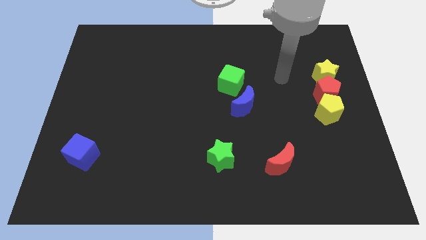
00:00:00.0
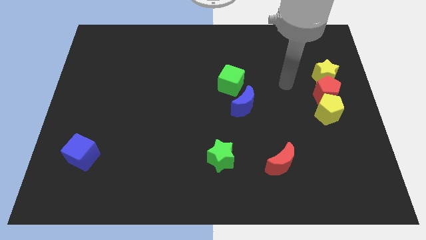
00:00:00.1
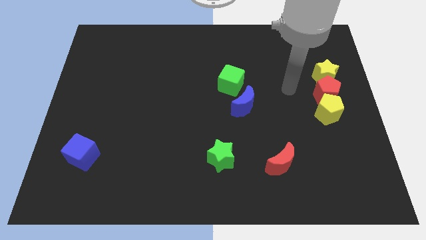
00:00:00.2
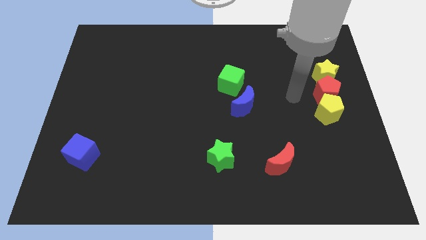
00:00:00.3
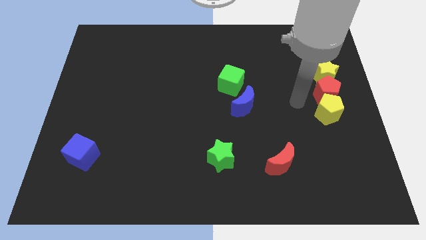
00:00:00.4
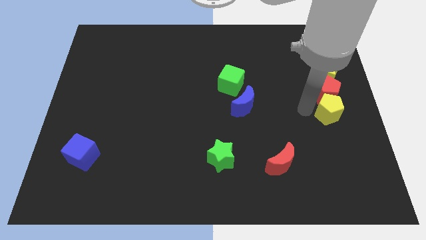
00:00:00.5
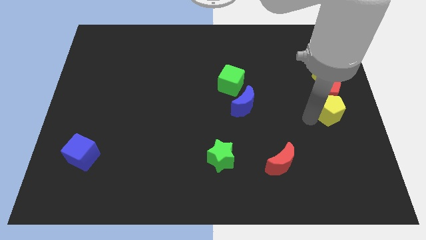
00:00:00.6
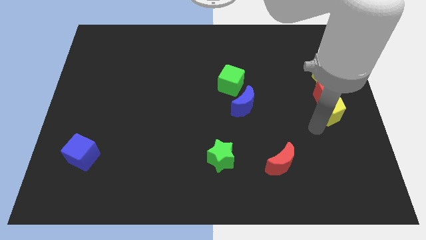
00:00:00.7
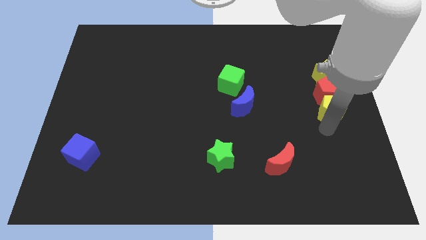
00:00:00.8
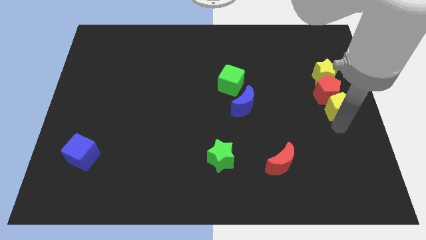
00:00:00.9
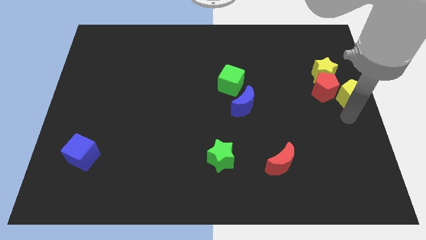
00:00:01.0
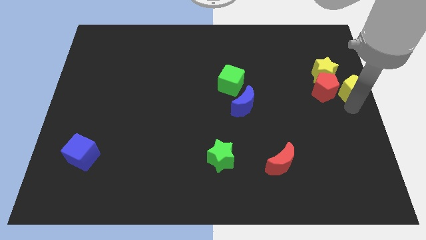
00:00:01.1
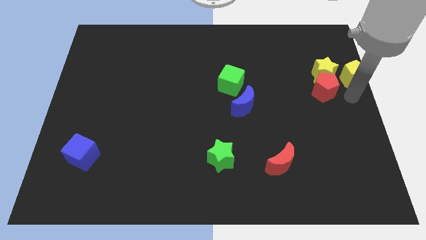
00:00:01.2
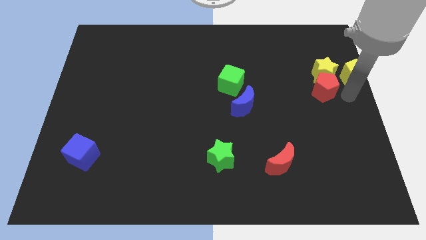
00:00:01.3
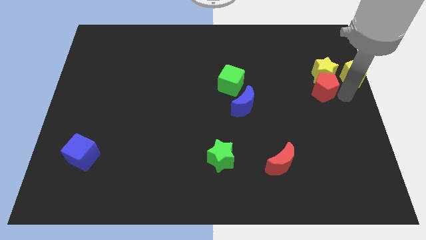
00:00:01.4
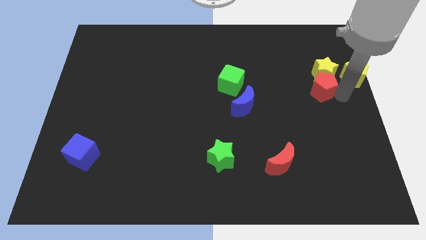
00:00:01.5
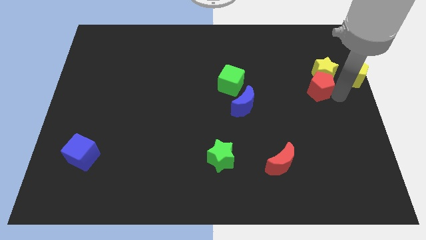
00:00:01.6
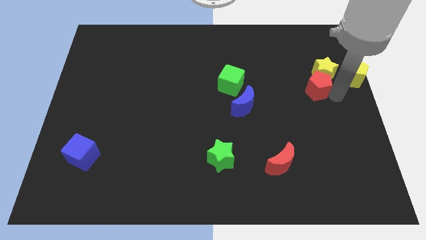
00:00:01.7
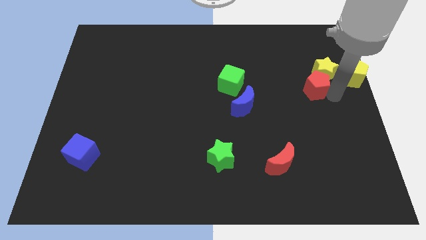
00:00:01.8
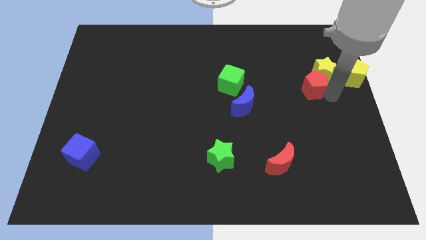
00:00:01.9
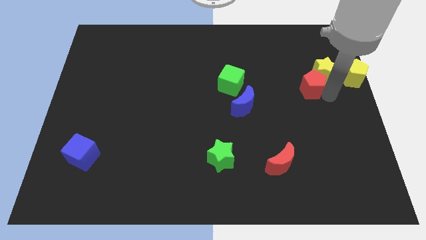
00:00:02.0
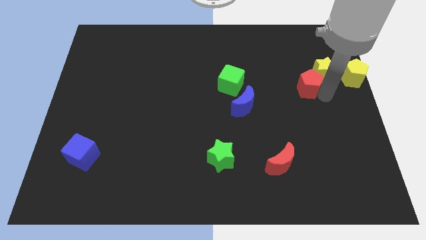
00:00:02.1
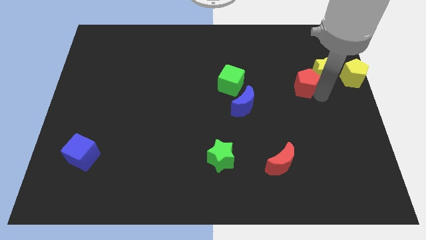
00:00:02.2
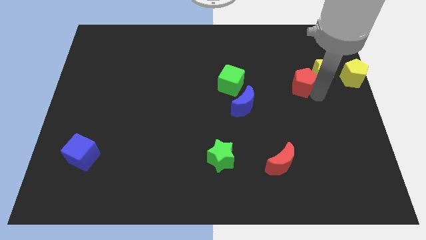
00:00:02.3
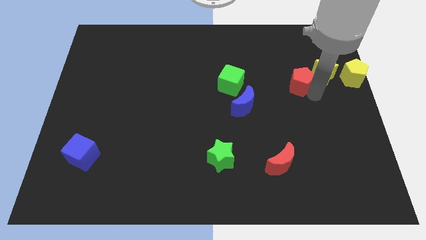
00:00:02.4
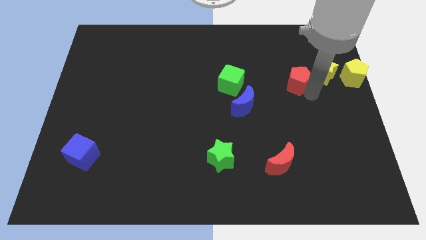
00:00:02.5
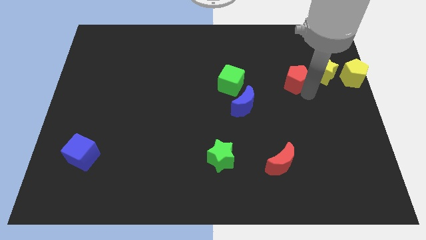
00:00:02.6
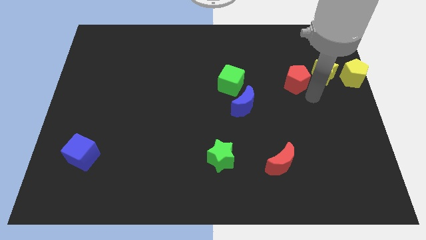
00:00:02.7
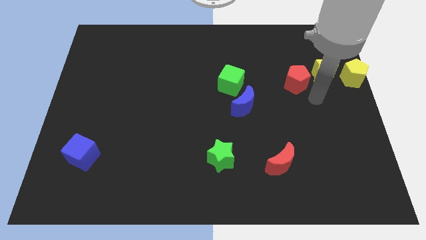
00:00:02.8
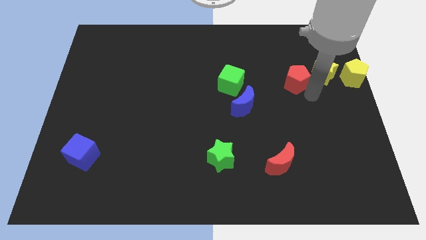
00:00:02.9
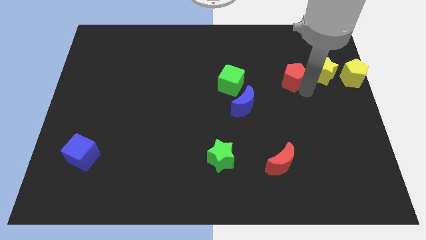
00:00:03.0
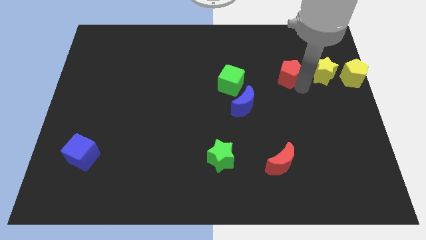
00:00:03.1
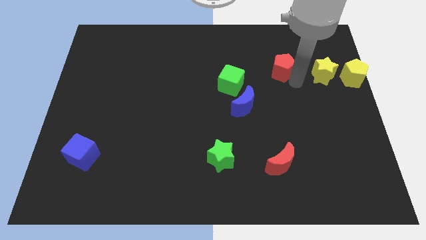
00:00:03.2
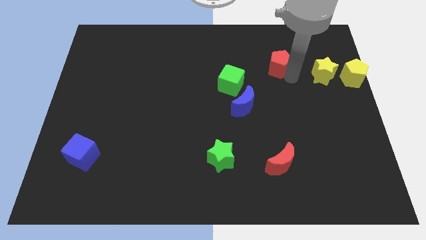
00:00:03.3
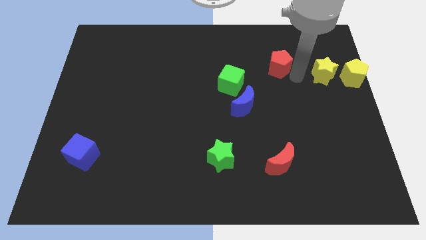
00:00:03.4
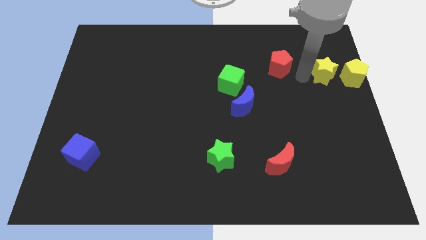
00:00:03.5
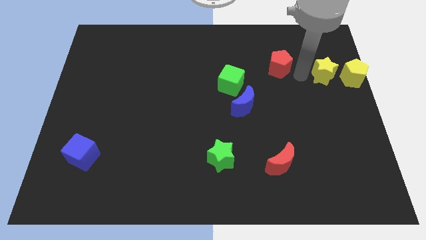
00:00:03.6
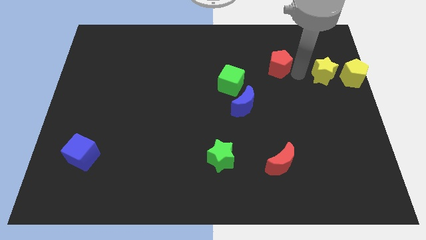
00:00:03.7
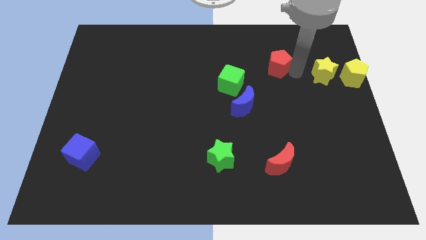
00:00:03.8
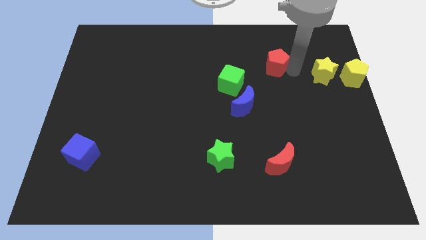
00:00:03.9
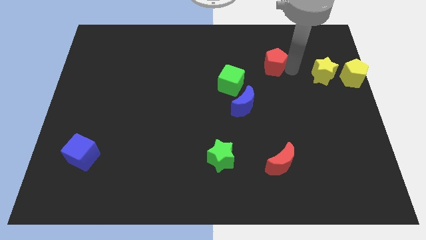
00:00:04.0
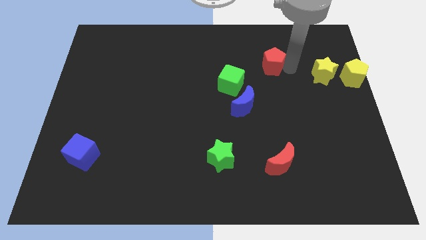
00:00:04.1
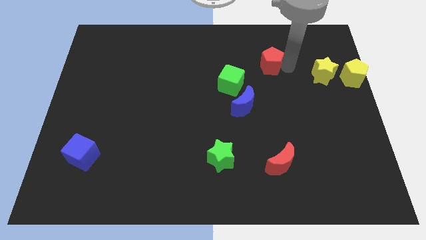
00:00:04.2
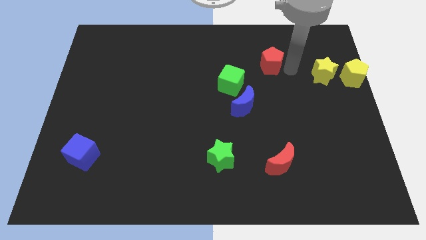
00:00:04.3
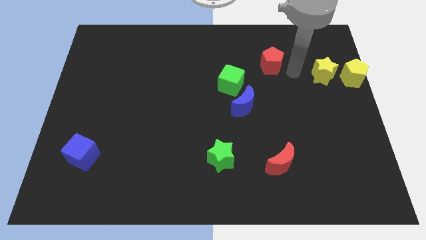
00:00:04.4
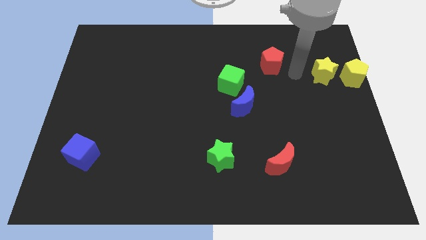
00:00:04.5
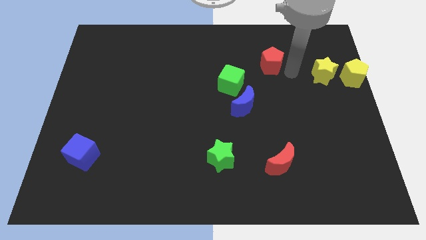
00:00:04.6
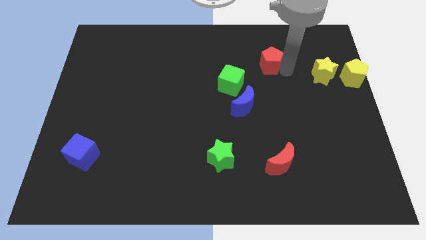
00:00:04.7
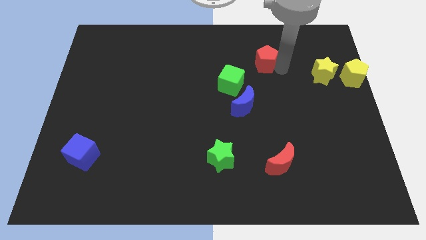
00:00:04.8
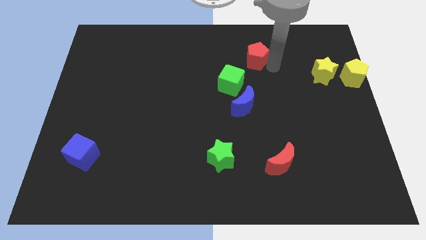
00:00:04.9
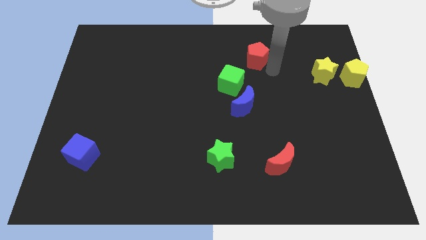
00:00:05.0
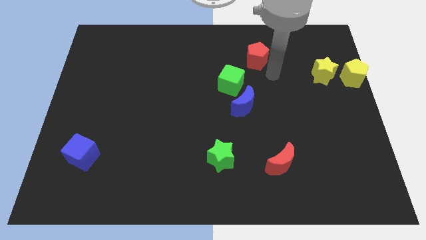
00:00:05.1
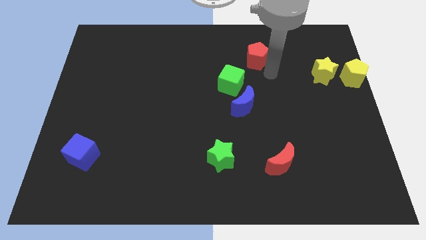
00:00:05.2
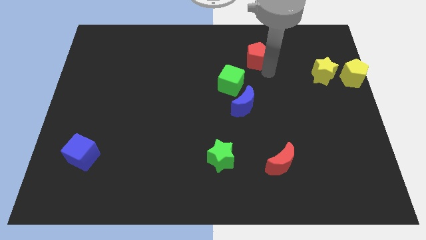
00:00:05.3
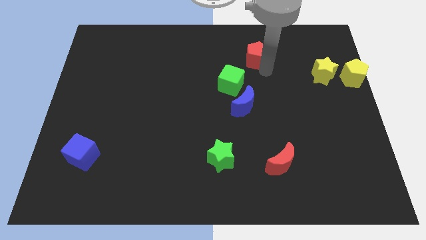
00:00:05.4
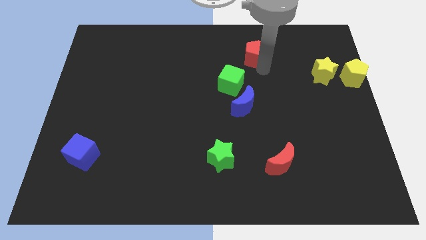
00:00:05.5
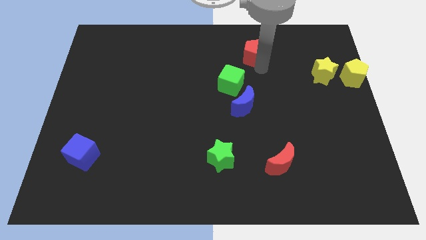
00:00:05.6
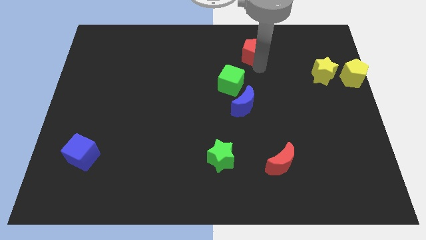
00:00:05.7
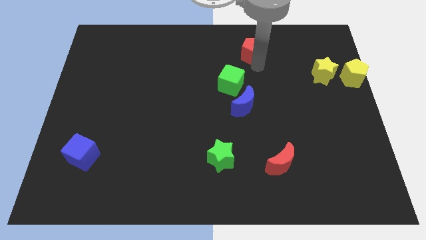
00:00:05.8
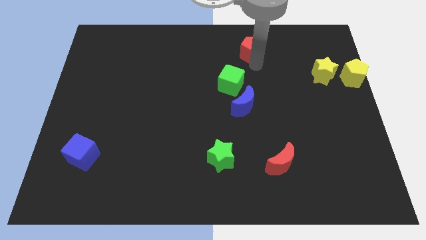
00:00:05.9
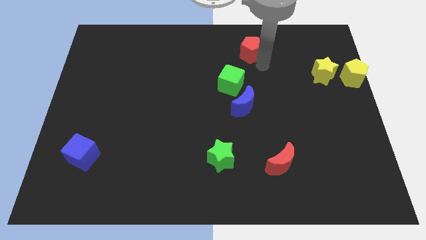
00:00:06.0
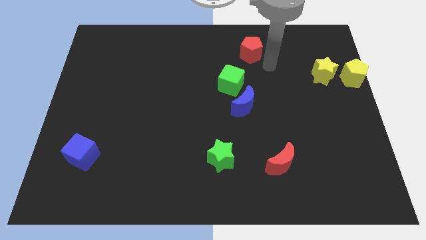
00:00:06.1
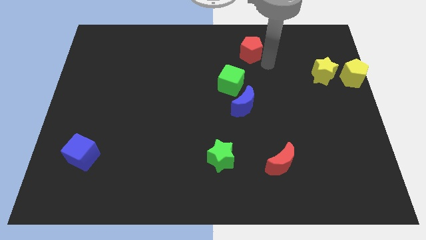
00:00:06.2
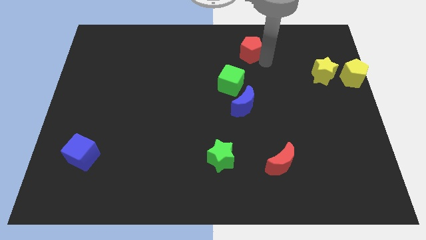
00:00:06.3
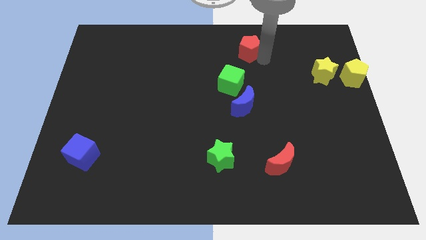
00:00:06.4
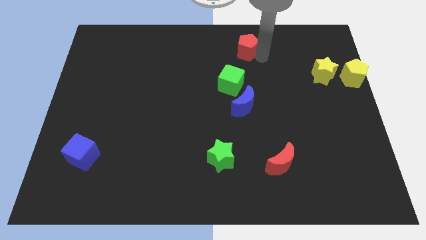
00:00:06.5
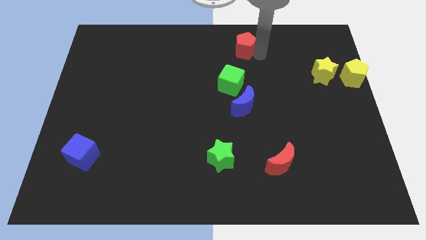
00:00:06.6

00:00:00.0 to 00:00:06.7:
put the red pentagon to the towards your base

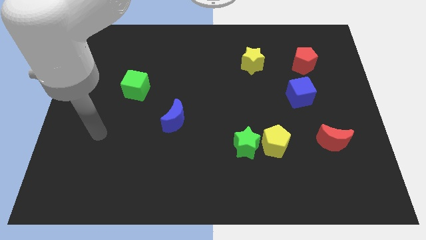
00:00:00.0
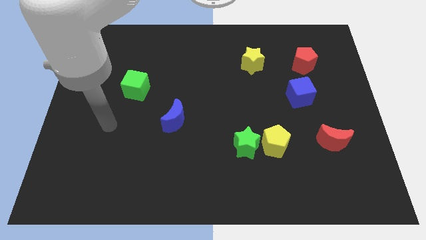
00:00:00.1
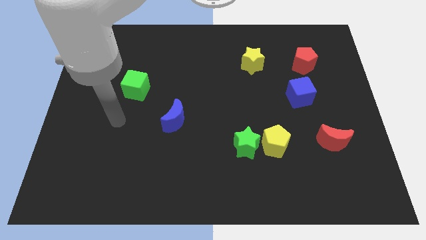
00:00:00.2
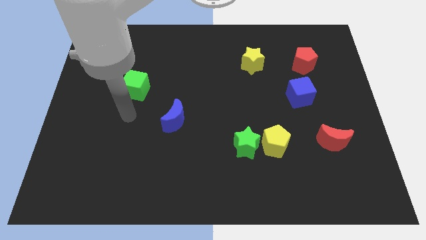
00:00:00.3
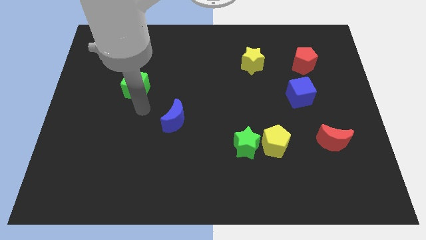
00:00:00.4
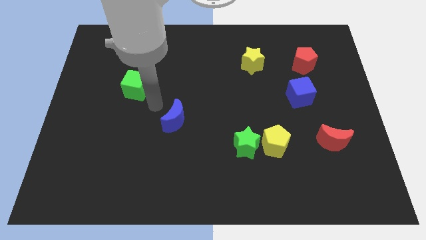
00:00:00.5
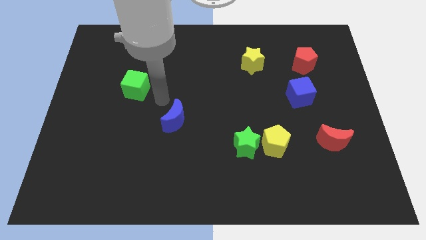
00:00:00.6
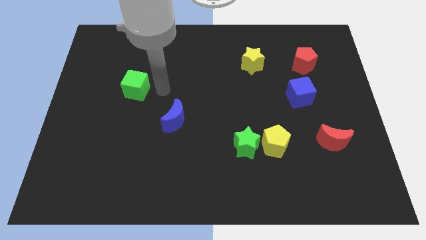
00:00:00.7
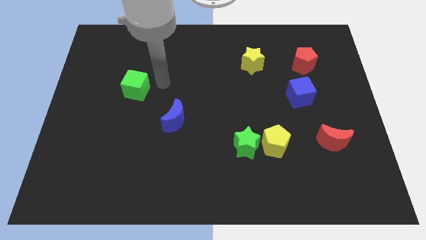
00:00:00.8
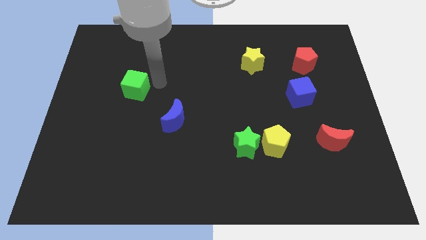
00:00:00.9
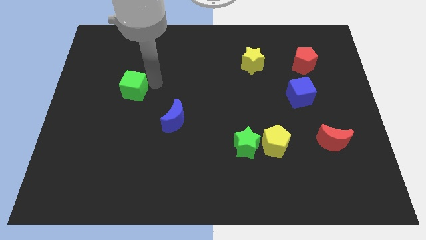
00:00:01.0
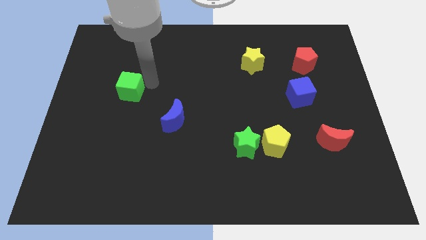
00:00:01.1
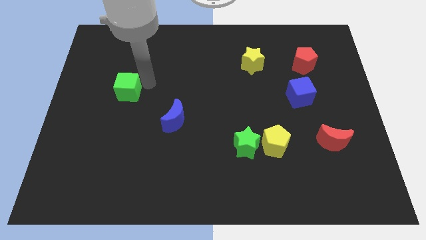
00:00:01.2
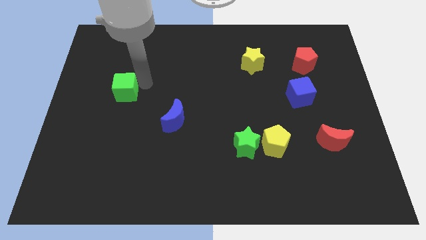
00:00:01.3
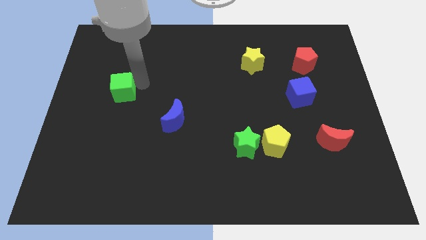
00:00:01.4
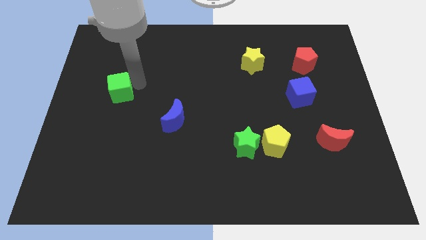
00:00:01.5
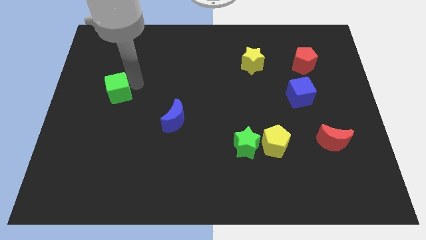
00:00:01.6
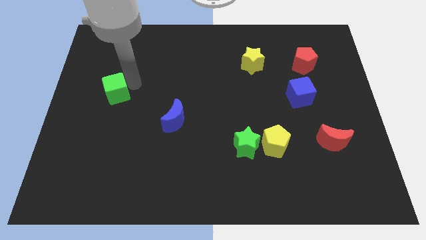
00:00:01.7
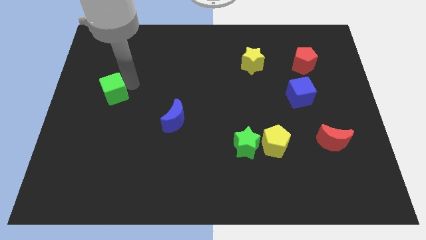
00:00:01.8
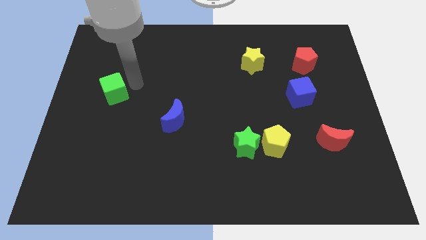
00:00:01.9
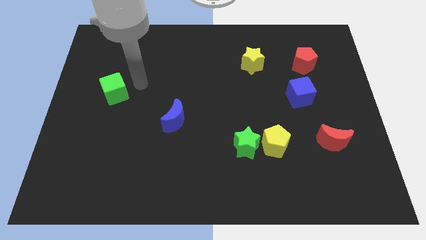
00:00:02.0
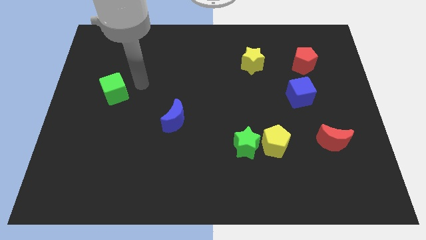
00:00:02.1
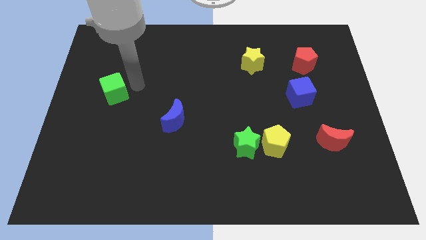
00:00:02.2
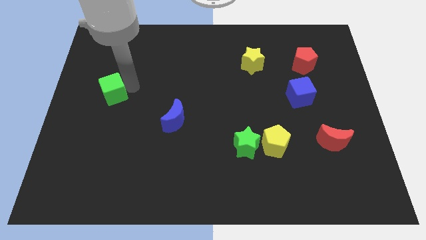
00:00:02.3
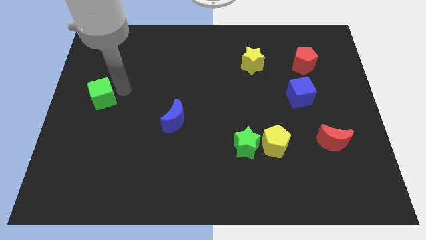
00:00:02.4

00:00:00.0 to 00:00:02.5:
put the green cube to the left side of the board
